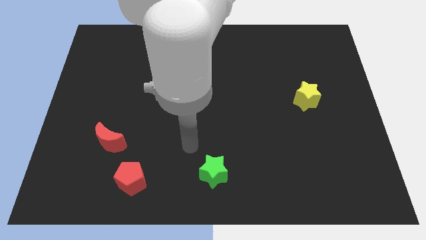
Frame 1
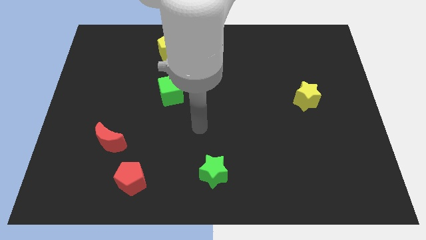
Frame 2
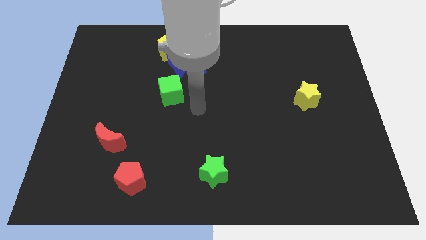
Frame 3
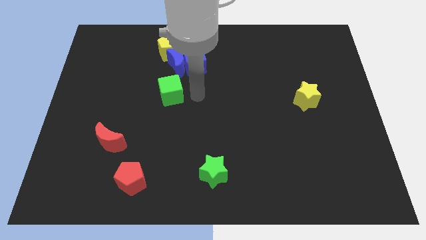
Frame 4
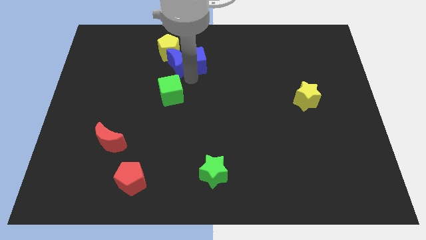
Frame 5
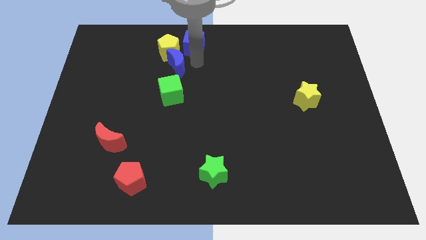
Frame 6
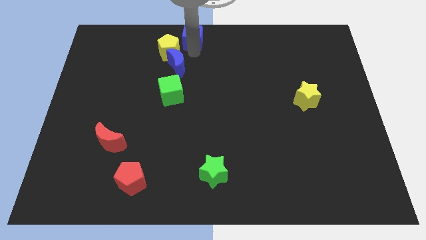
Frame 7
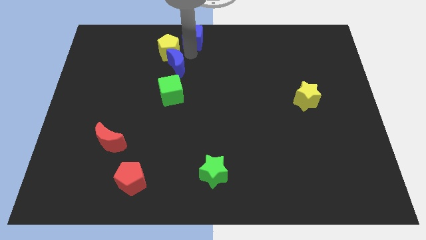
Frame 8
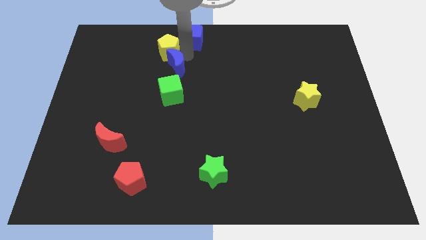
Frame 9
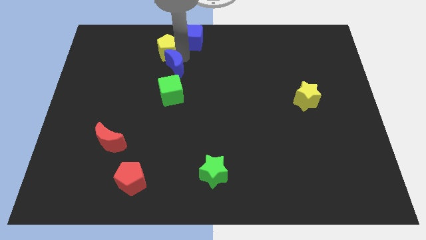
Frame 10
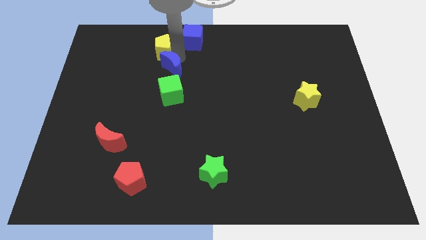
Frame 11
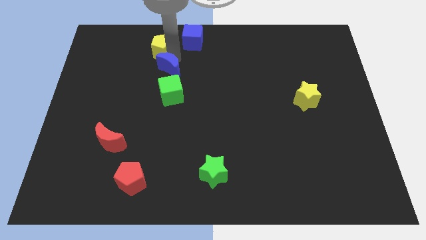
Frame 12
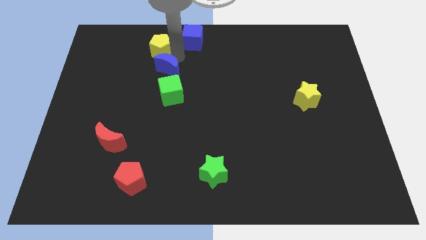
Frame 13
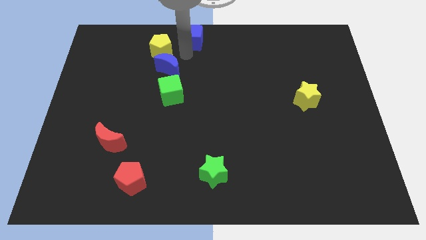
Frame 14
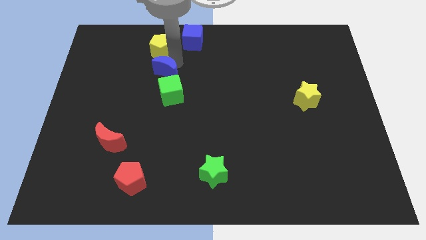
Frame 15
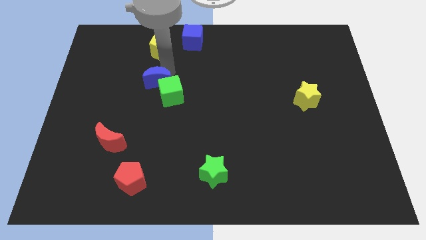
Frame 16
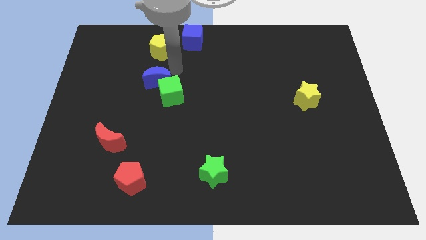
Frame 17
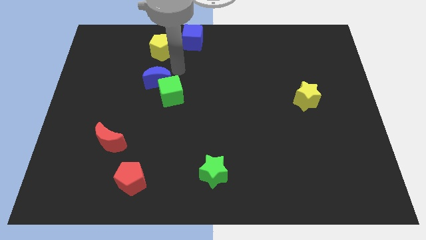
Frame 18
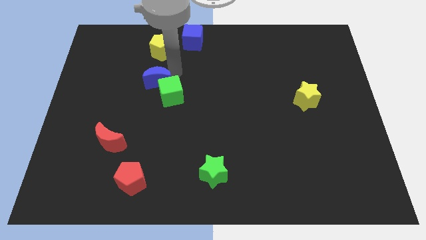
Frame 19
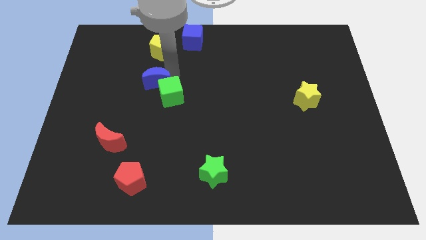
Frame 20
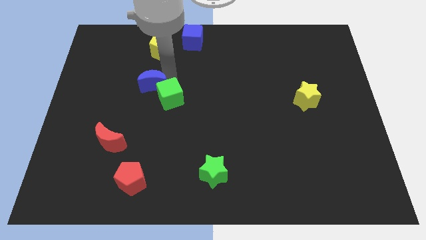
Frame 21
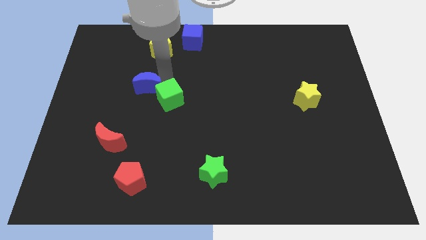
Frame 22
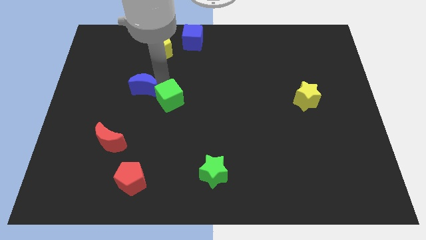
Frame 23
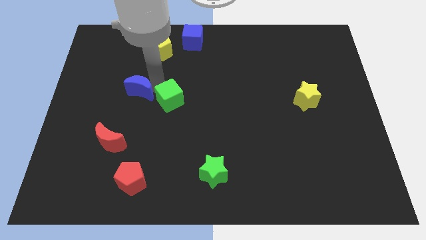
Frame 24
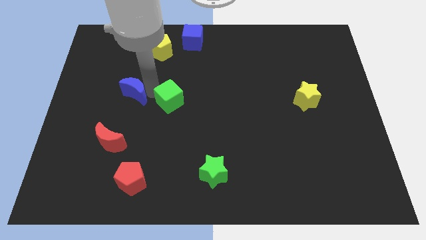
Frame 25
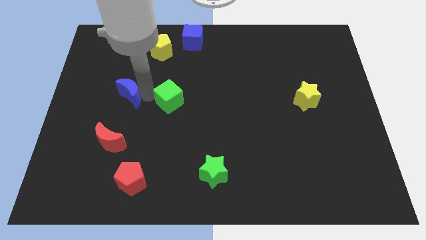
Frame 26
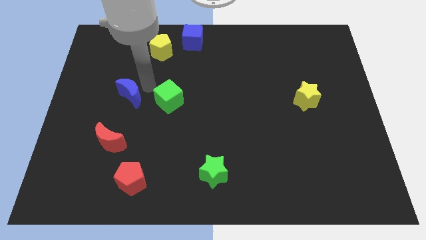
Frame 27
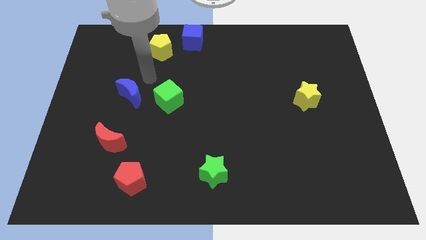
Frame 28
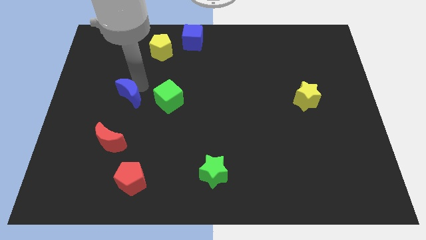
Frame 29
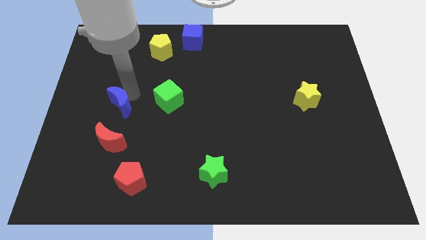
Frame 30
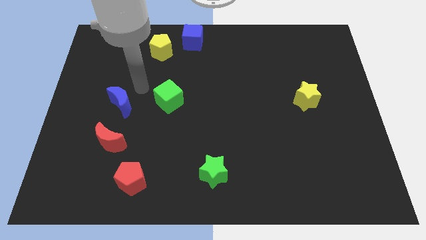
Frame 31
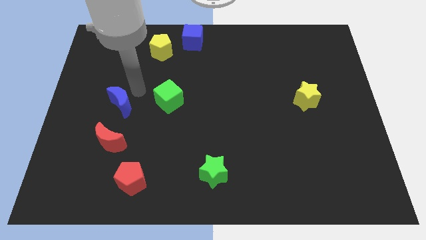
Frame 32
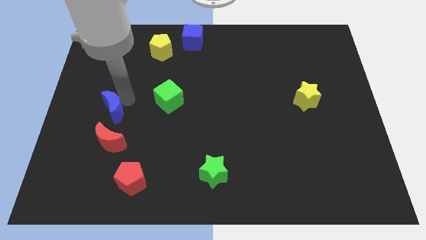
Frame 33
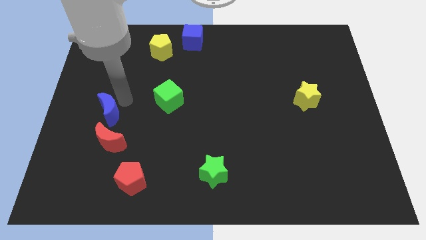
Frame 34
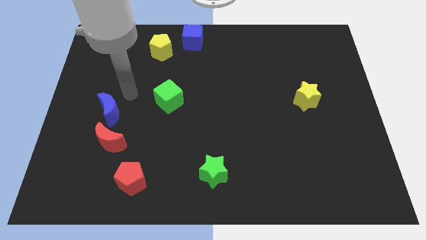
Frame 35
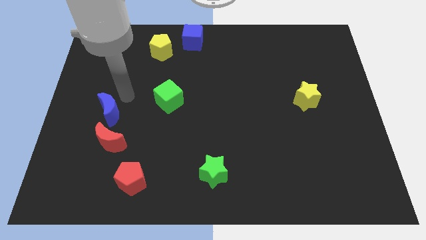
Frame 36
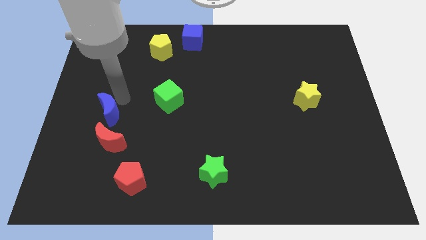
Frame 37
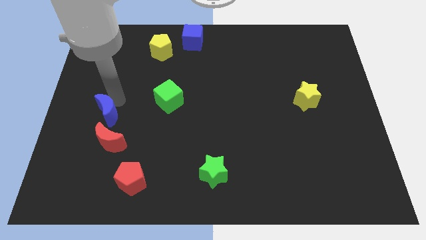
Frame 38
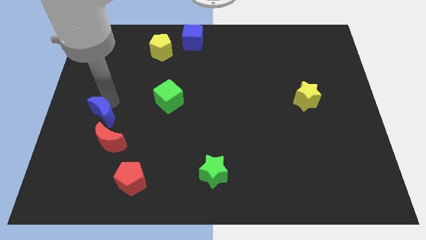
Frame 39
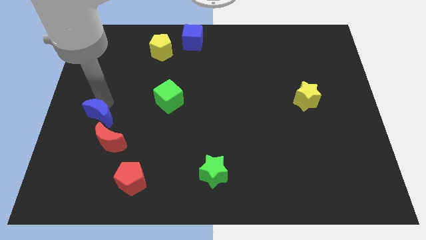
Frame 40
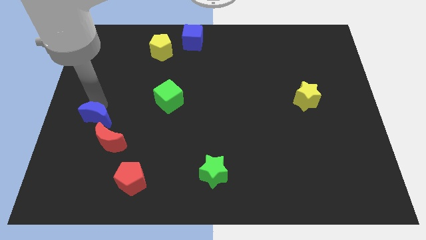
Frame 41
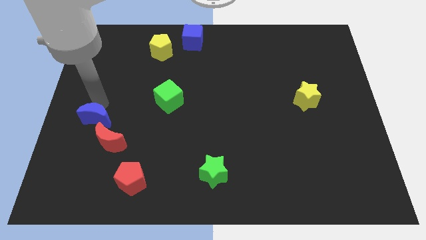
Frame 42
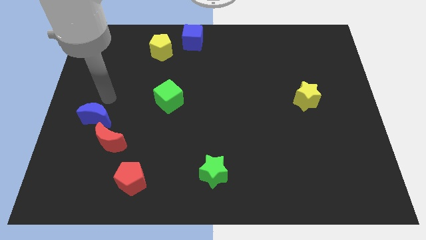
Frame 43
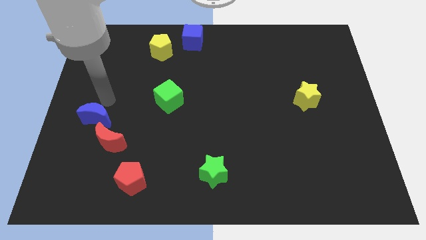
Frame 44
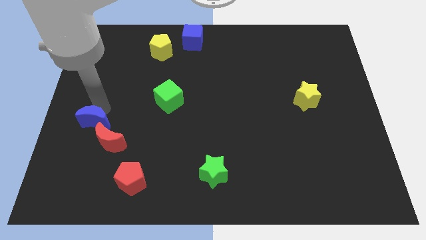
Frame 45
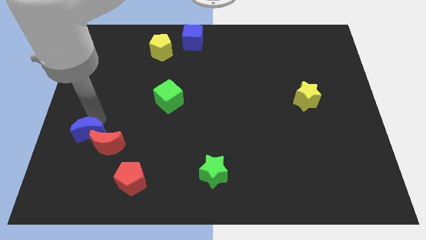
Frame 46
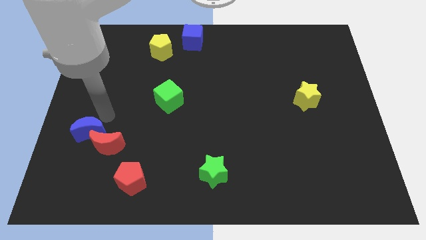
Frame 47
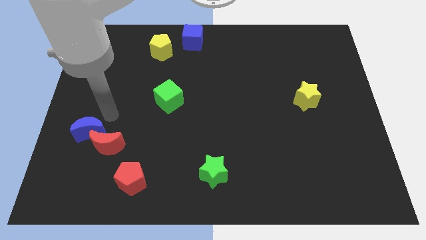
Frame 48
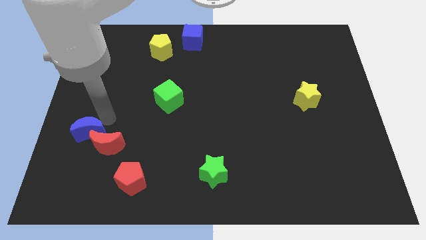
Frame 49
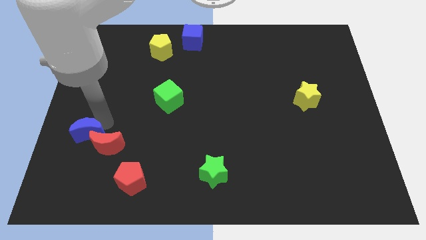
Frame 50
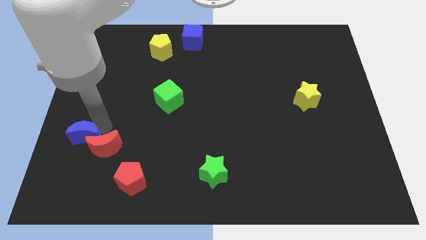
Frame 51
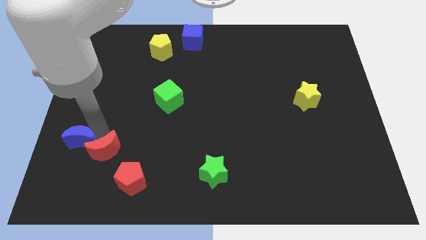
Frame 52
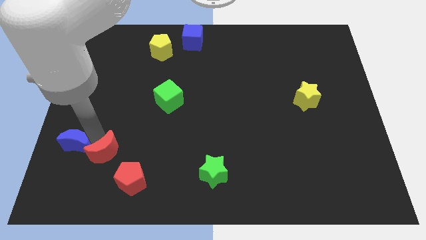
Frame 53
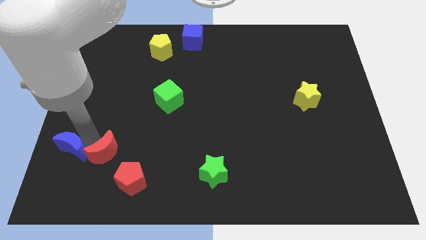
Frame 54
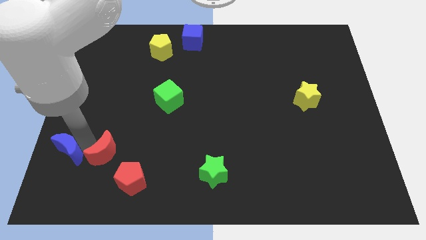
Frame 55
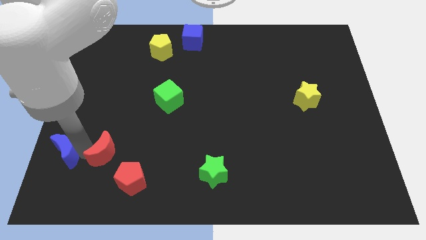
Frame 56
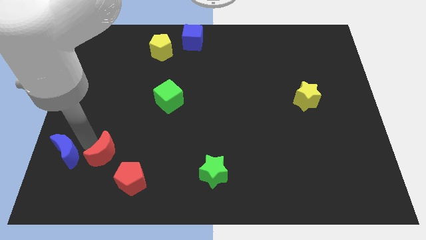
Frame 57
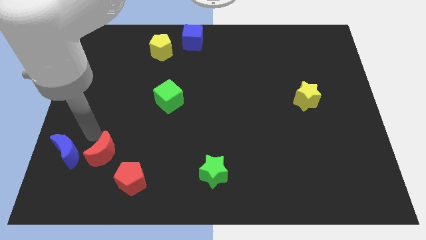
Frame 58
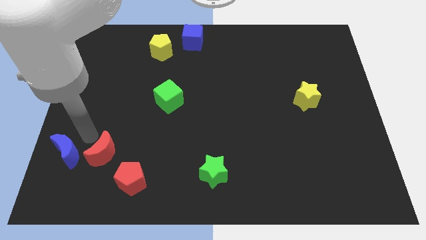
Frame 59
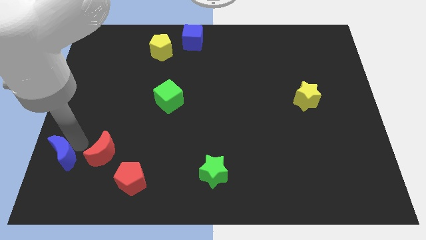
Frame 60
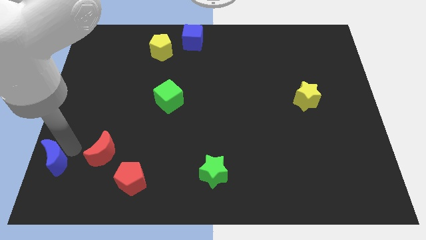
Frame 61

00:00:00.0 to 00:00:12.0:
push the blue moon to the bottom left
